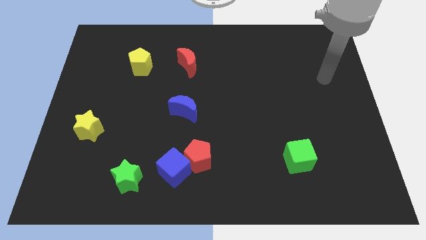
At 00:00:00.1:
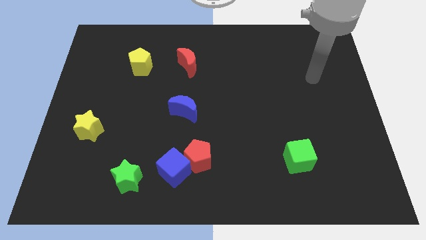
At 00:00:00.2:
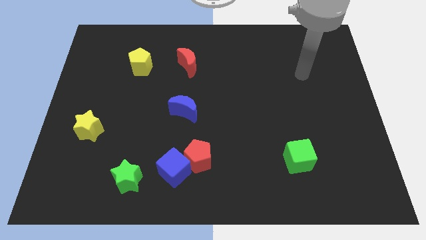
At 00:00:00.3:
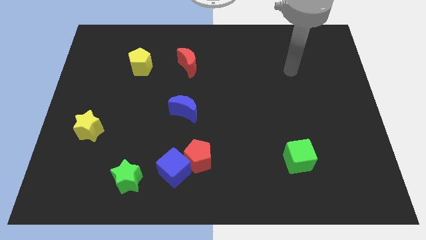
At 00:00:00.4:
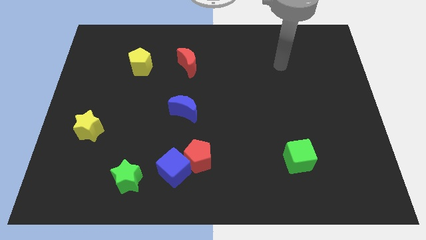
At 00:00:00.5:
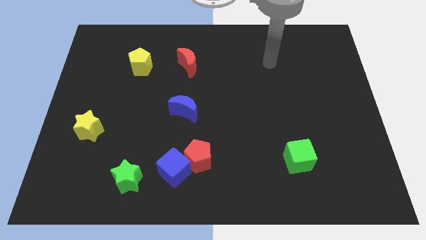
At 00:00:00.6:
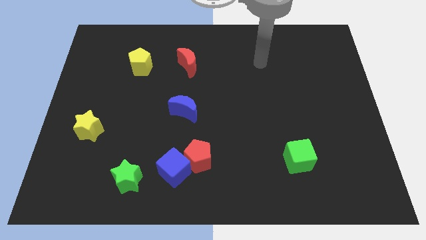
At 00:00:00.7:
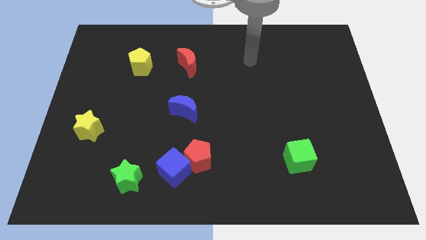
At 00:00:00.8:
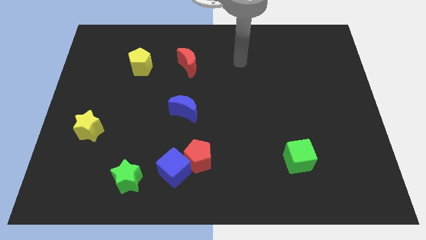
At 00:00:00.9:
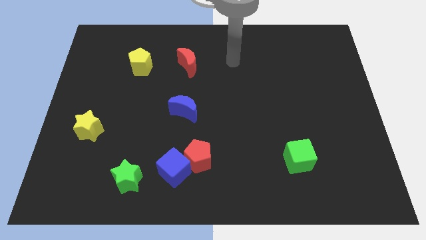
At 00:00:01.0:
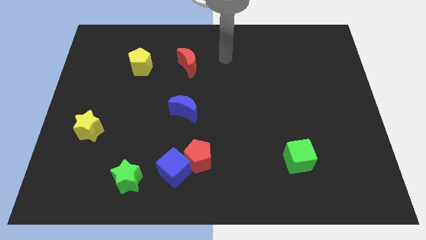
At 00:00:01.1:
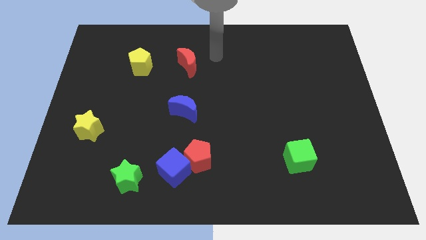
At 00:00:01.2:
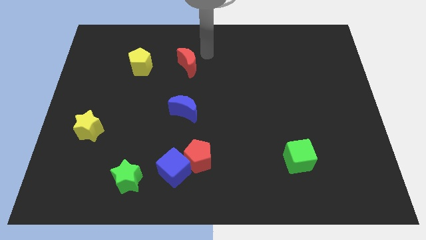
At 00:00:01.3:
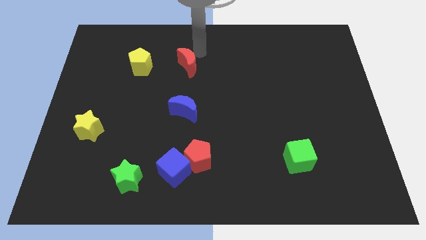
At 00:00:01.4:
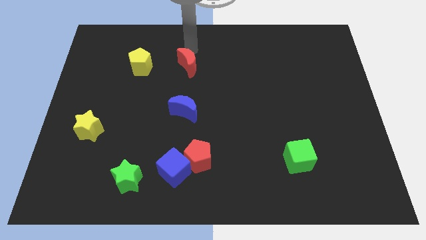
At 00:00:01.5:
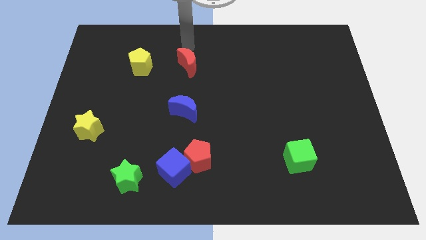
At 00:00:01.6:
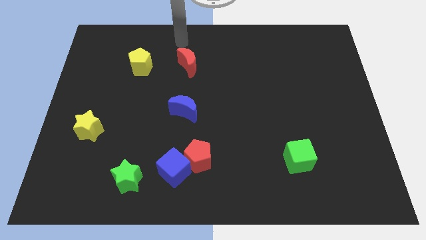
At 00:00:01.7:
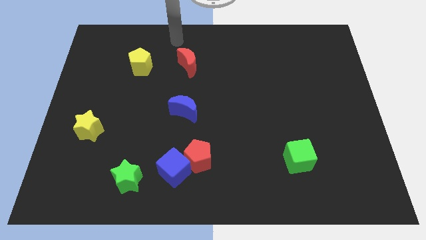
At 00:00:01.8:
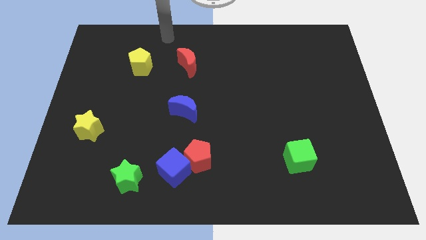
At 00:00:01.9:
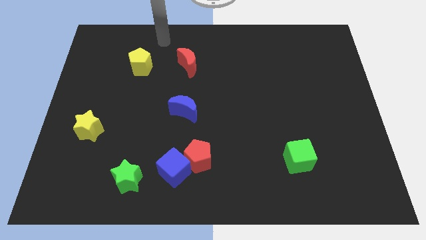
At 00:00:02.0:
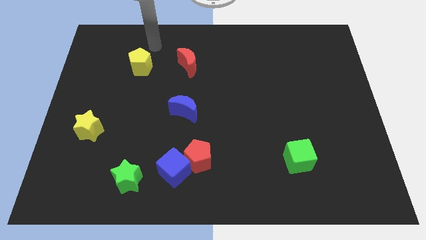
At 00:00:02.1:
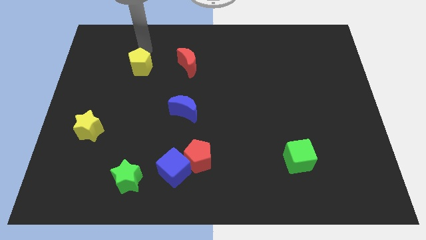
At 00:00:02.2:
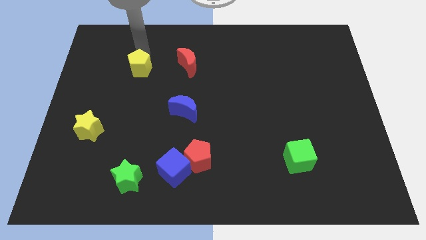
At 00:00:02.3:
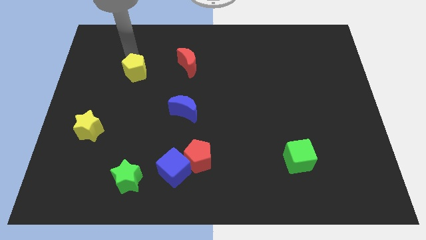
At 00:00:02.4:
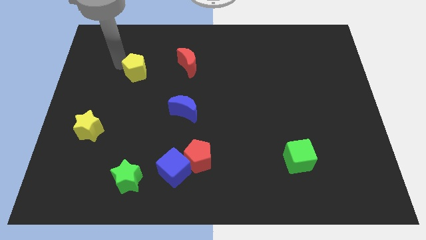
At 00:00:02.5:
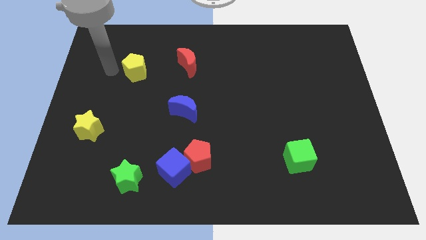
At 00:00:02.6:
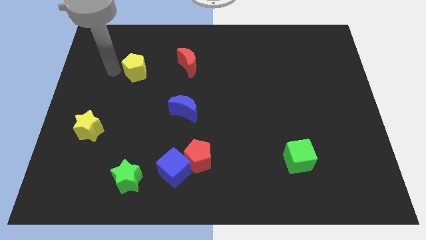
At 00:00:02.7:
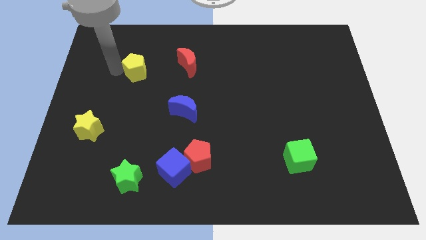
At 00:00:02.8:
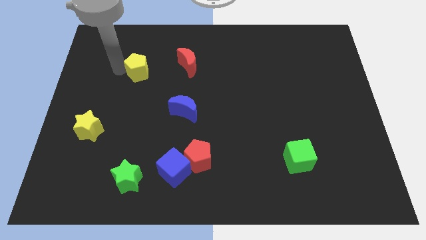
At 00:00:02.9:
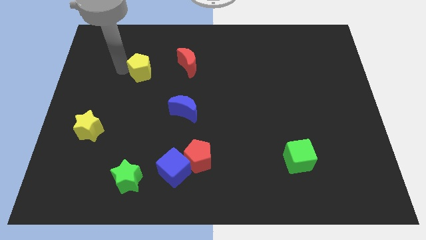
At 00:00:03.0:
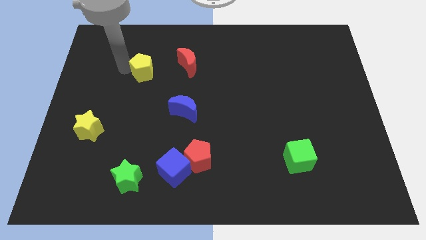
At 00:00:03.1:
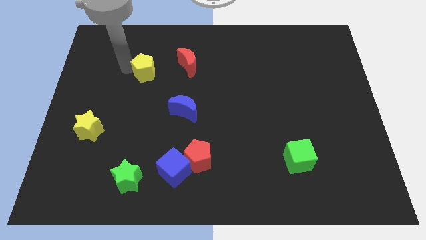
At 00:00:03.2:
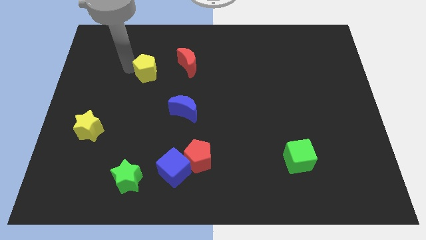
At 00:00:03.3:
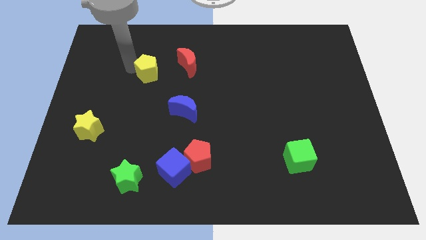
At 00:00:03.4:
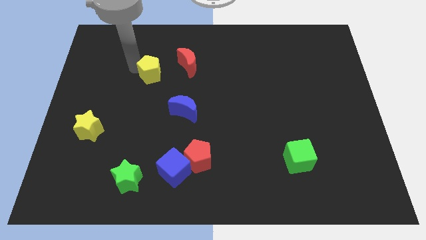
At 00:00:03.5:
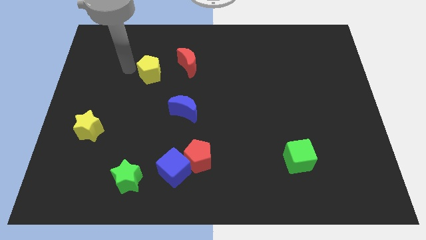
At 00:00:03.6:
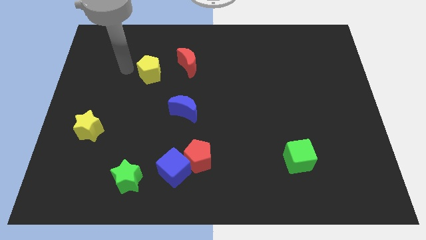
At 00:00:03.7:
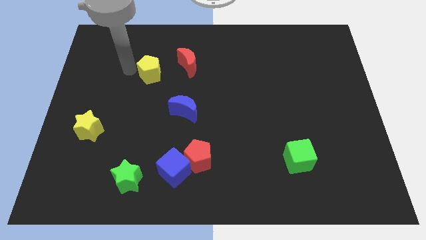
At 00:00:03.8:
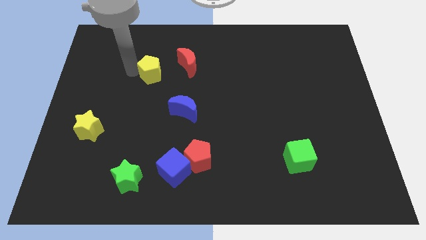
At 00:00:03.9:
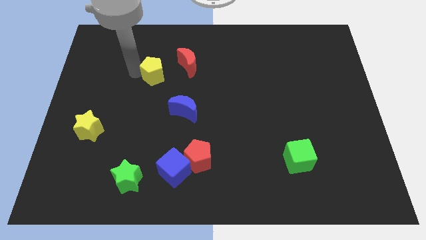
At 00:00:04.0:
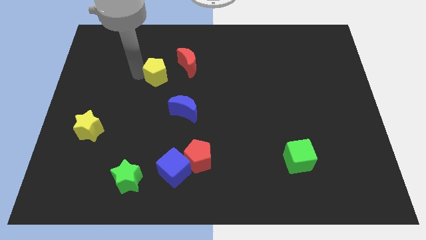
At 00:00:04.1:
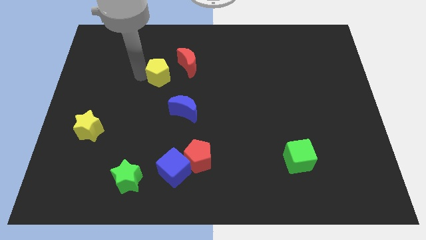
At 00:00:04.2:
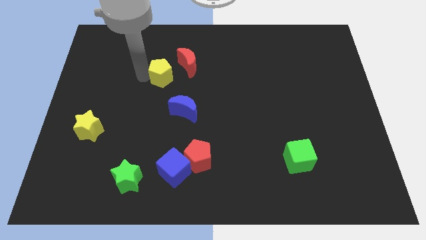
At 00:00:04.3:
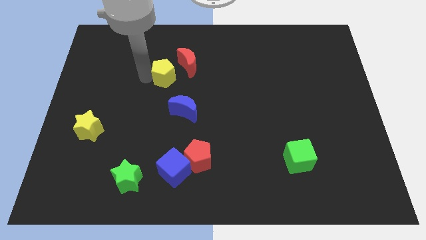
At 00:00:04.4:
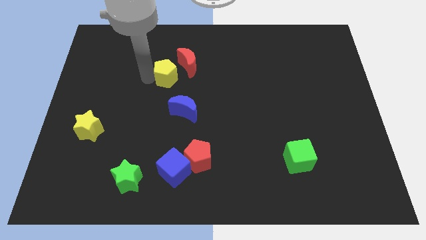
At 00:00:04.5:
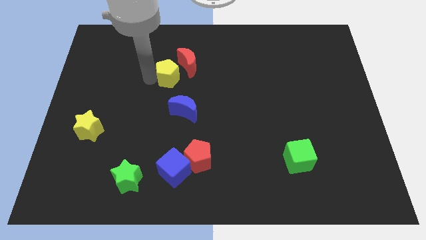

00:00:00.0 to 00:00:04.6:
slightly push the yellow pentagon right

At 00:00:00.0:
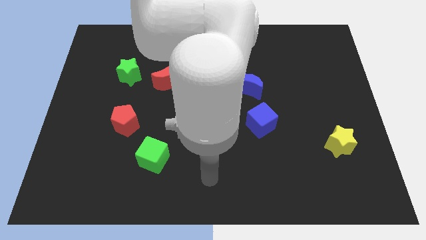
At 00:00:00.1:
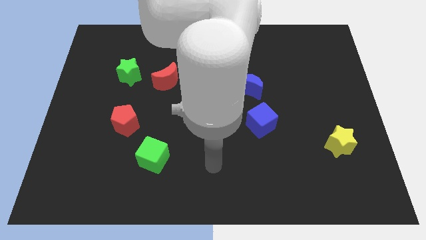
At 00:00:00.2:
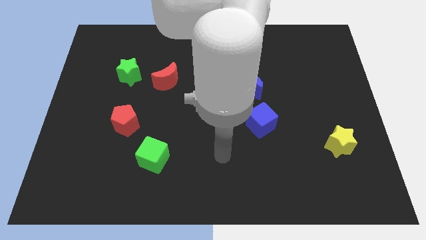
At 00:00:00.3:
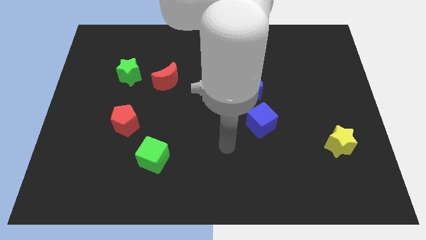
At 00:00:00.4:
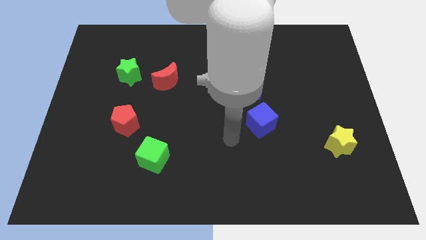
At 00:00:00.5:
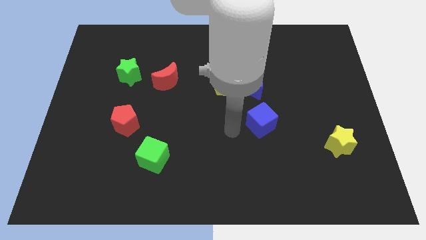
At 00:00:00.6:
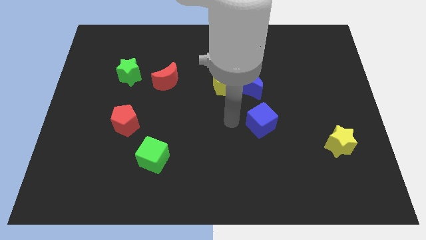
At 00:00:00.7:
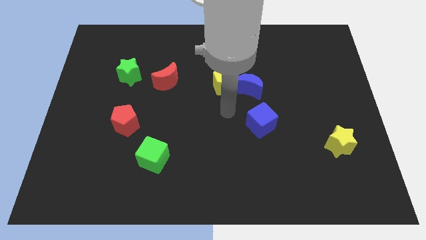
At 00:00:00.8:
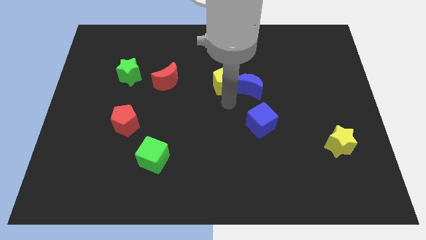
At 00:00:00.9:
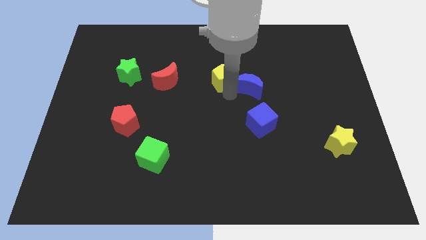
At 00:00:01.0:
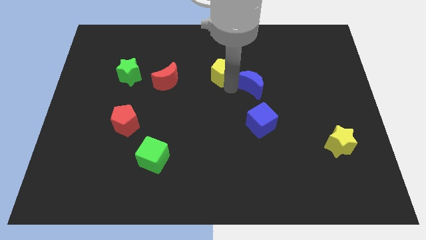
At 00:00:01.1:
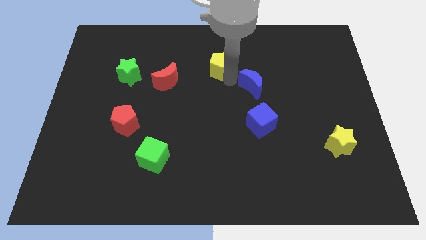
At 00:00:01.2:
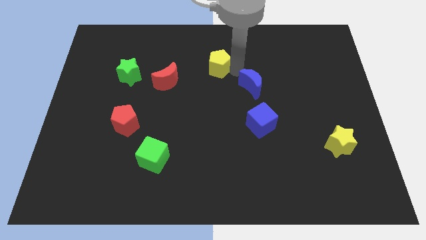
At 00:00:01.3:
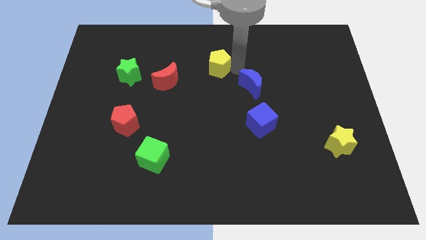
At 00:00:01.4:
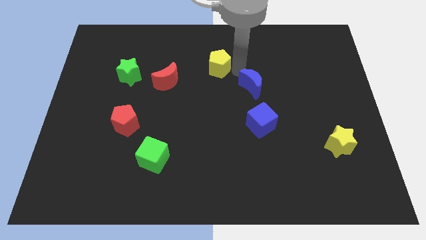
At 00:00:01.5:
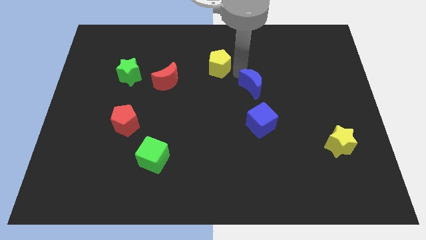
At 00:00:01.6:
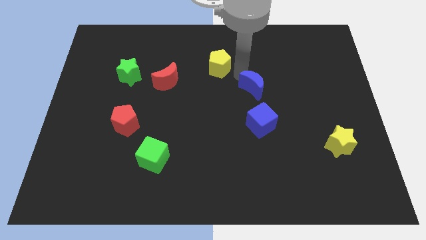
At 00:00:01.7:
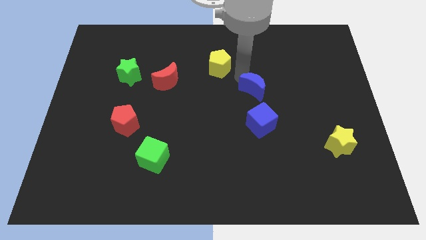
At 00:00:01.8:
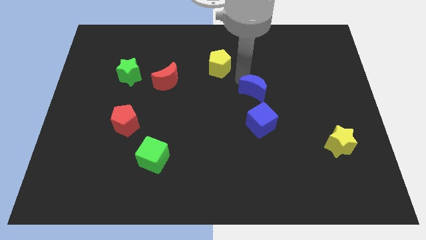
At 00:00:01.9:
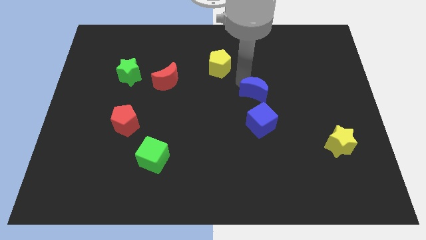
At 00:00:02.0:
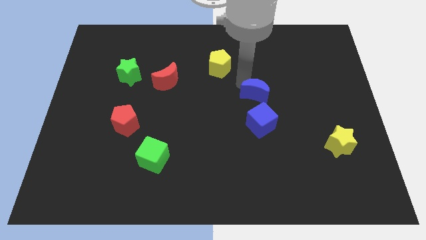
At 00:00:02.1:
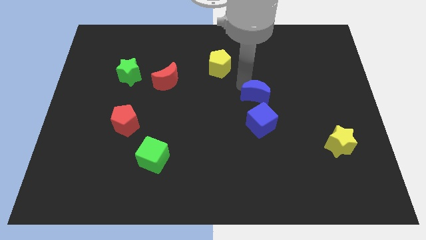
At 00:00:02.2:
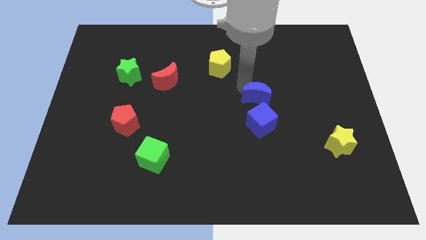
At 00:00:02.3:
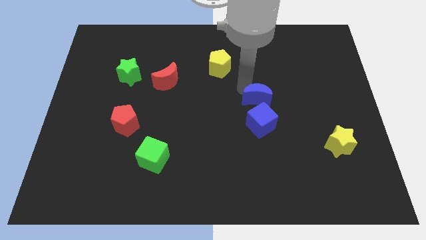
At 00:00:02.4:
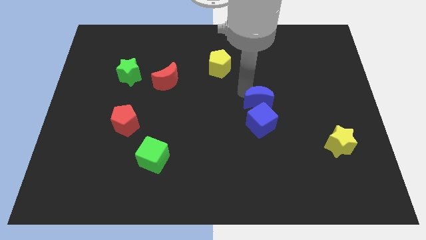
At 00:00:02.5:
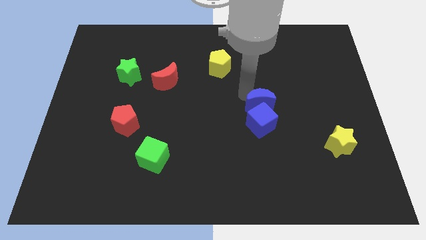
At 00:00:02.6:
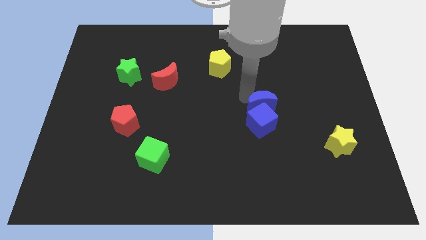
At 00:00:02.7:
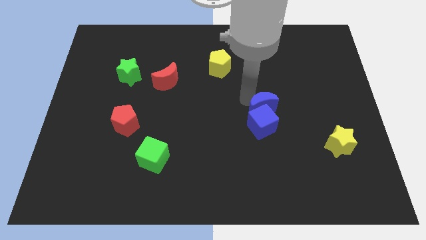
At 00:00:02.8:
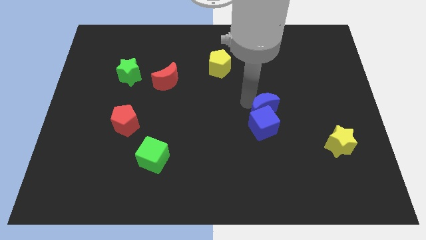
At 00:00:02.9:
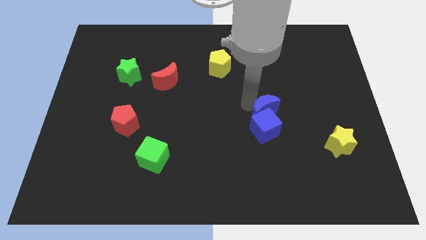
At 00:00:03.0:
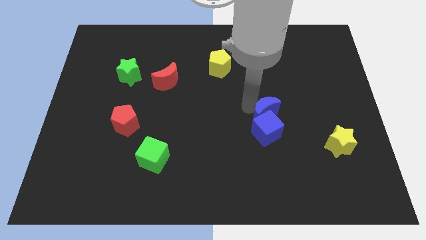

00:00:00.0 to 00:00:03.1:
slide the blue moon down and then to the right somewhat

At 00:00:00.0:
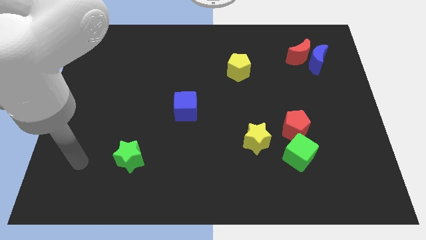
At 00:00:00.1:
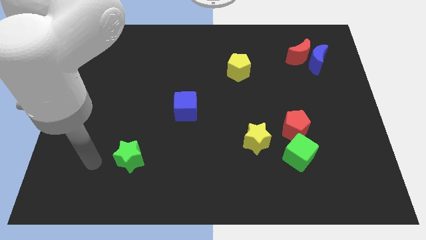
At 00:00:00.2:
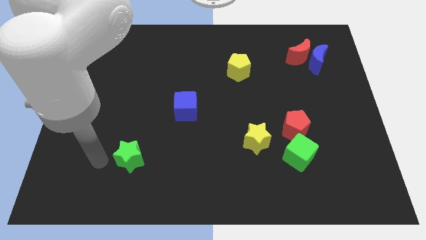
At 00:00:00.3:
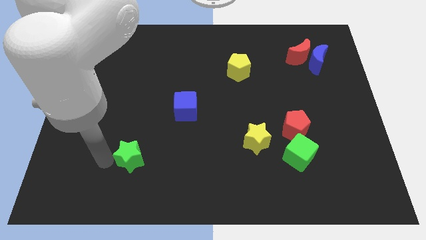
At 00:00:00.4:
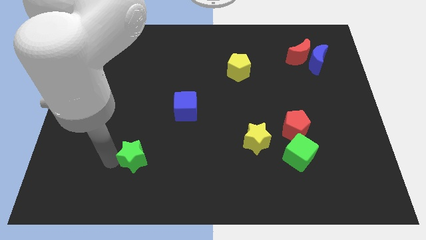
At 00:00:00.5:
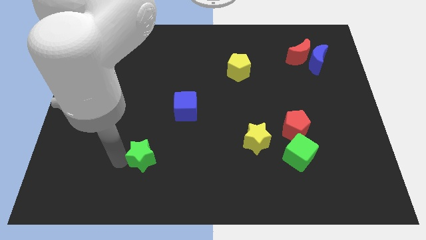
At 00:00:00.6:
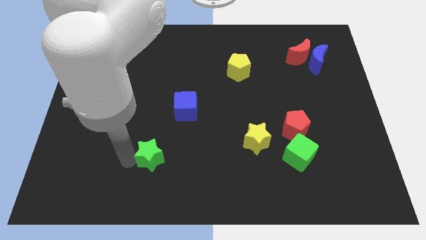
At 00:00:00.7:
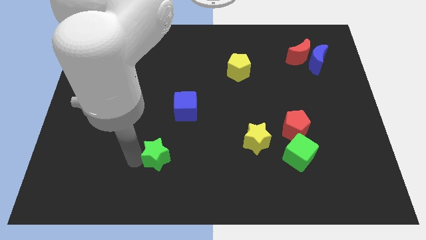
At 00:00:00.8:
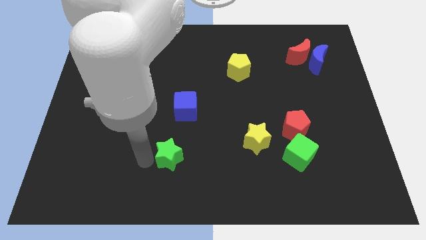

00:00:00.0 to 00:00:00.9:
slightly push the green star to the right
